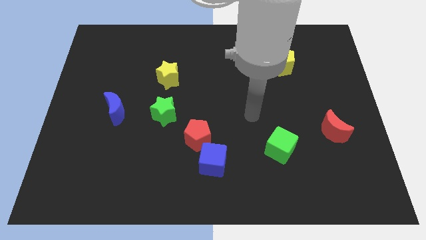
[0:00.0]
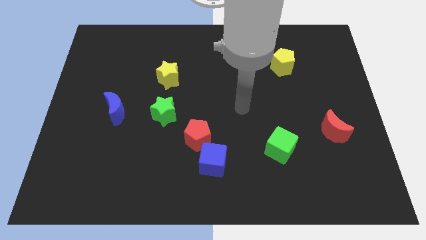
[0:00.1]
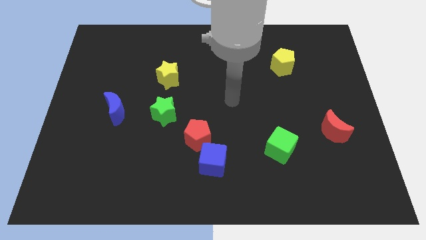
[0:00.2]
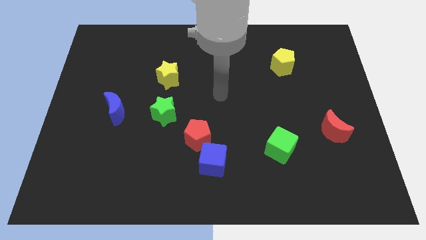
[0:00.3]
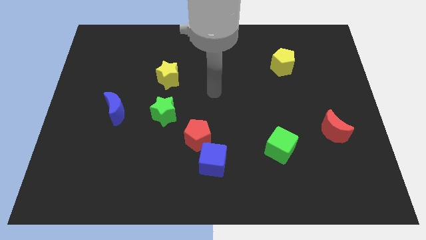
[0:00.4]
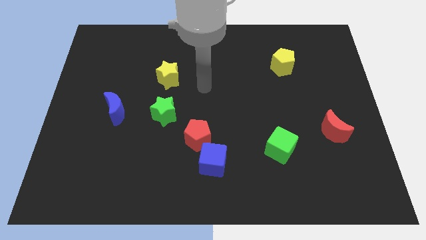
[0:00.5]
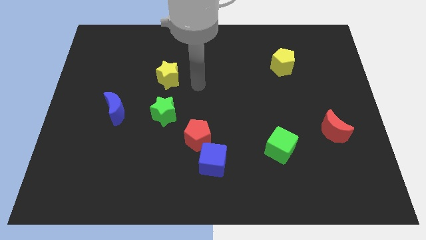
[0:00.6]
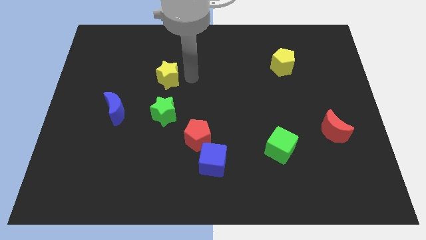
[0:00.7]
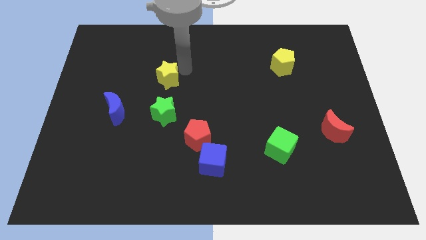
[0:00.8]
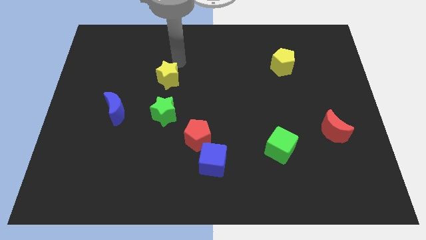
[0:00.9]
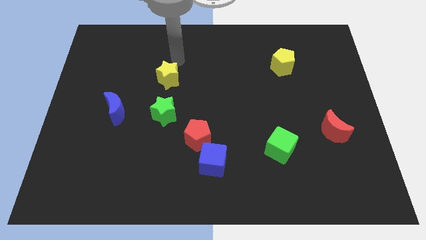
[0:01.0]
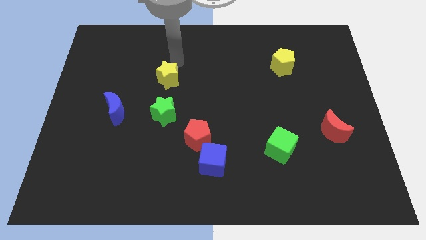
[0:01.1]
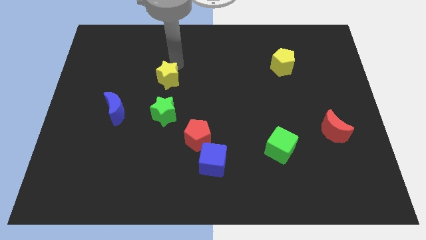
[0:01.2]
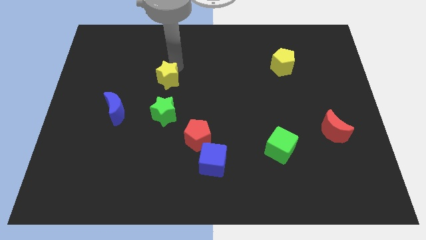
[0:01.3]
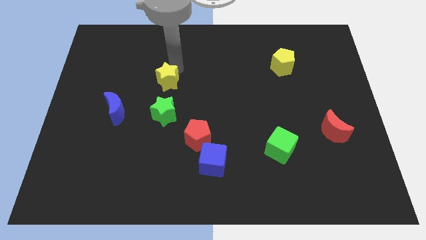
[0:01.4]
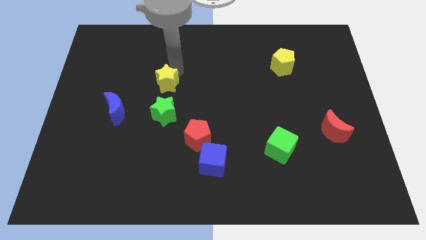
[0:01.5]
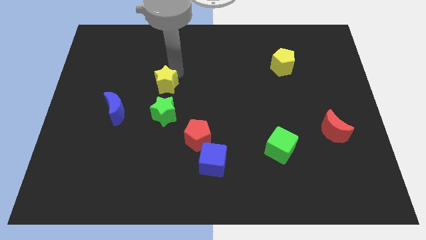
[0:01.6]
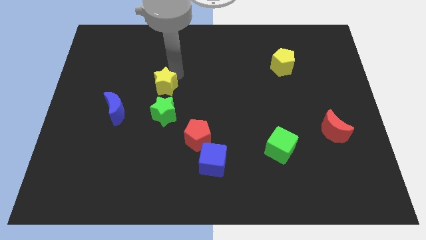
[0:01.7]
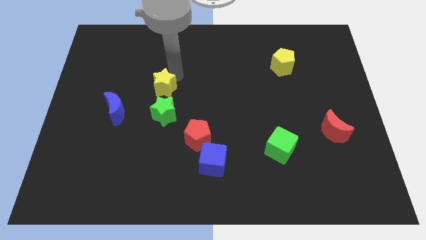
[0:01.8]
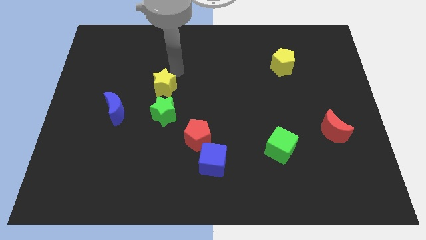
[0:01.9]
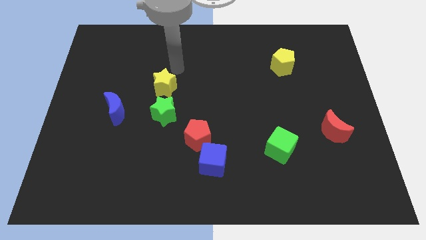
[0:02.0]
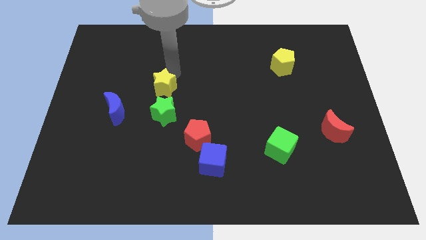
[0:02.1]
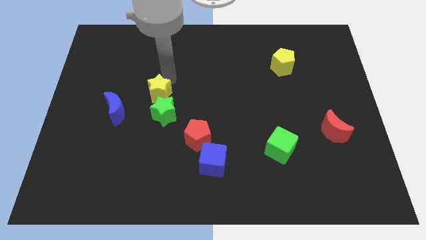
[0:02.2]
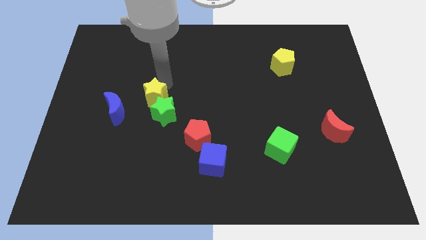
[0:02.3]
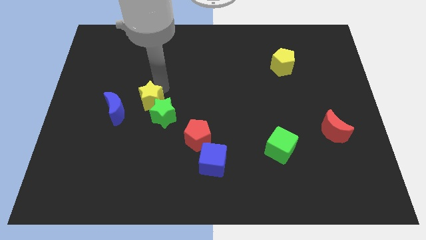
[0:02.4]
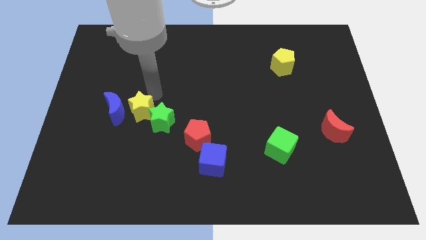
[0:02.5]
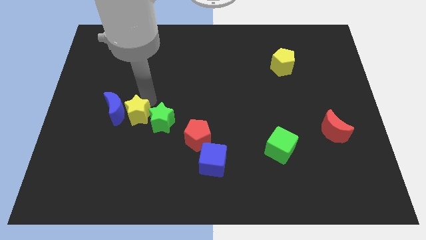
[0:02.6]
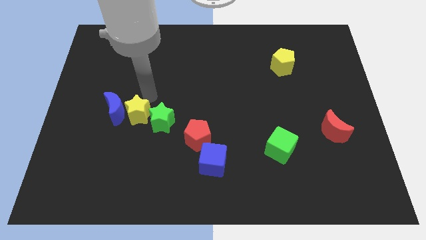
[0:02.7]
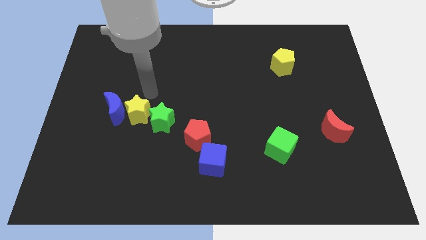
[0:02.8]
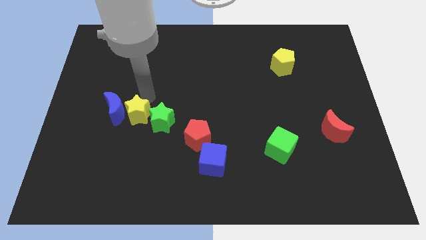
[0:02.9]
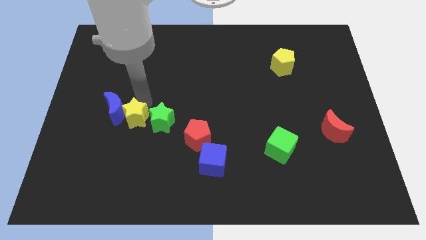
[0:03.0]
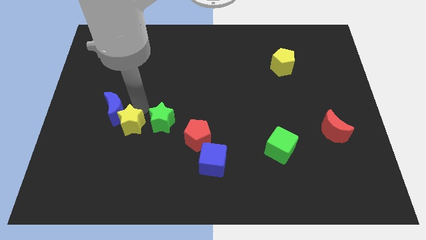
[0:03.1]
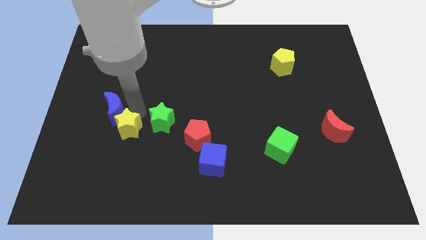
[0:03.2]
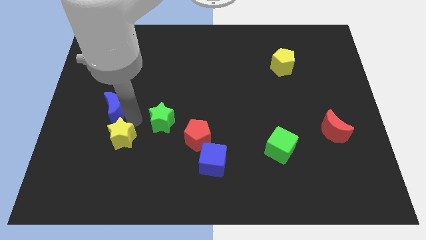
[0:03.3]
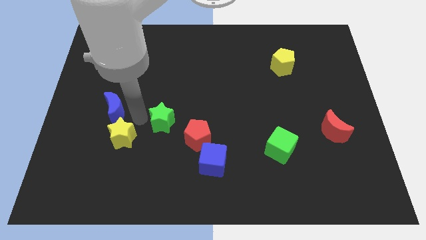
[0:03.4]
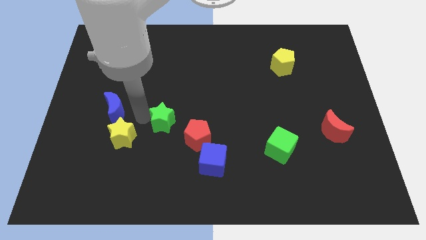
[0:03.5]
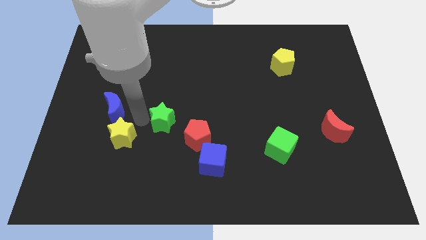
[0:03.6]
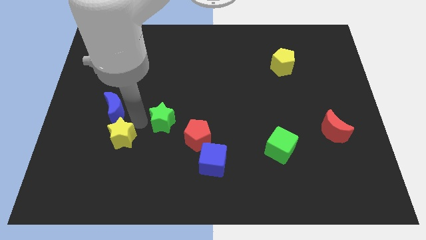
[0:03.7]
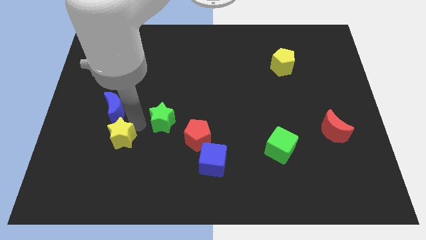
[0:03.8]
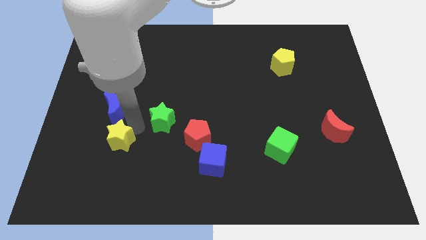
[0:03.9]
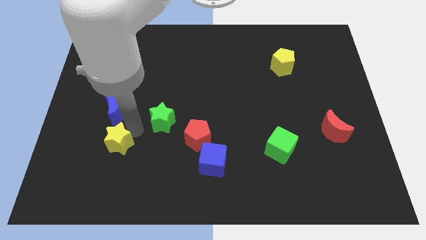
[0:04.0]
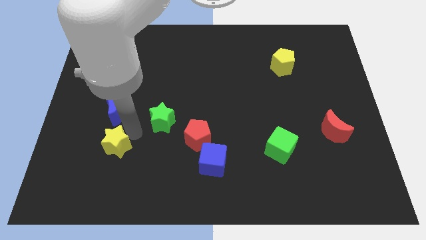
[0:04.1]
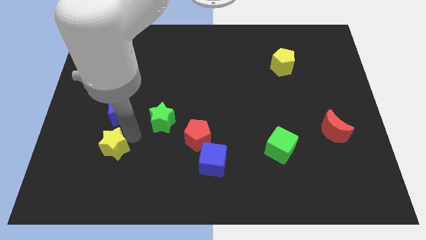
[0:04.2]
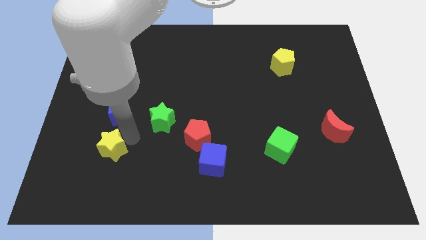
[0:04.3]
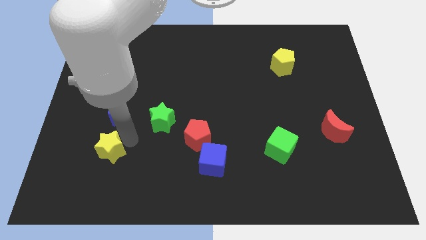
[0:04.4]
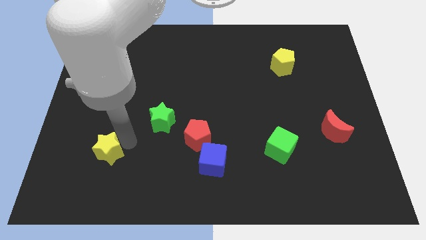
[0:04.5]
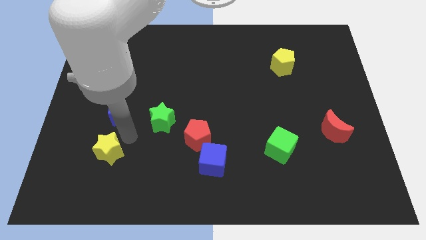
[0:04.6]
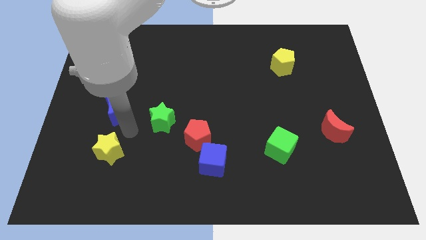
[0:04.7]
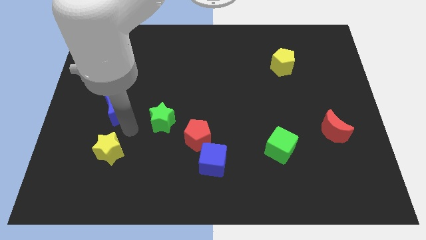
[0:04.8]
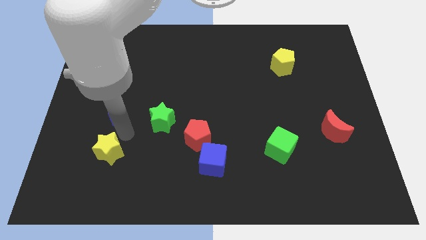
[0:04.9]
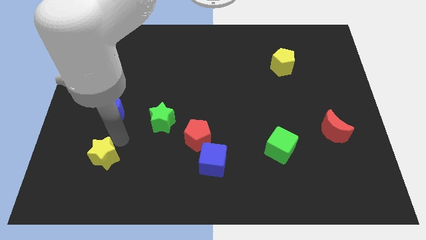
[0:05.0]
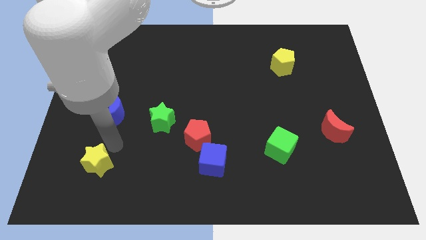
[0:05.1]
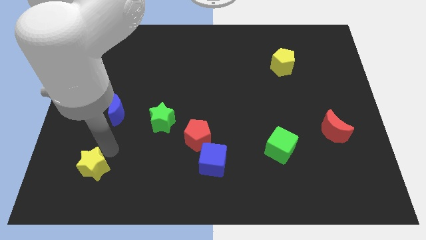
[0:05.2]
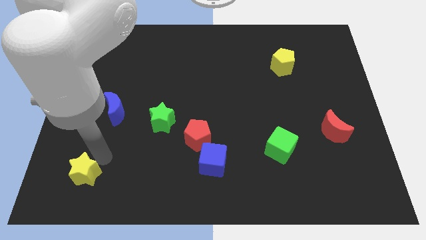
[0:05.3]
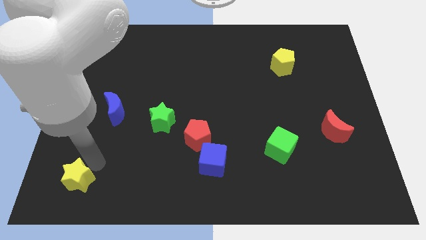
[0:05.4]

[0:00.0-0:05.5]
put the yellow star to the bottom left of the board

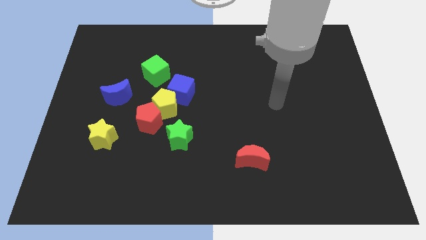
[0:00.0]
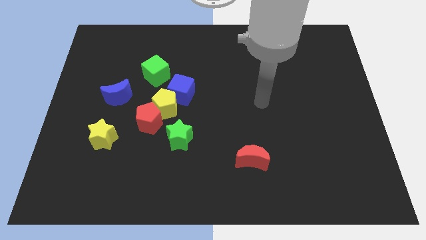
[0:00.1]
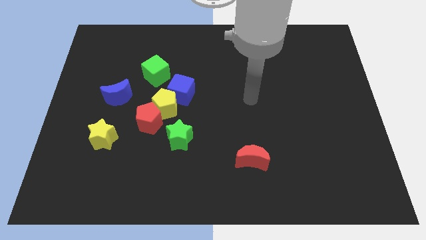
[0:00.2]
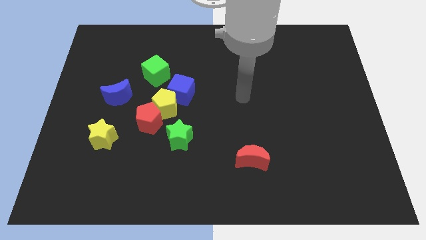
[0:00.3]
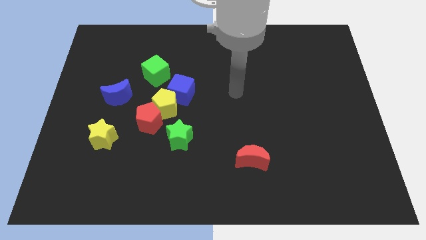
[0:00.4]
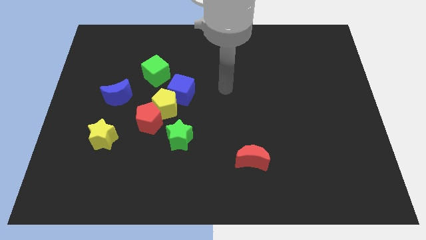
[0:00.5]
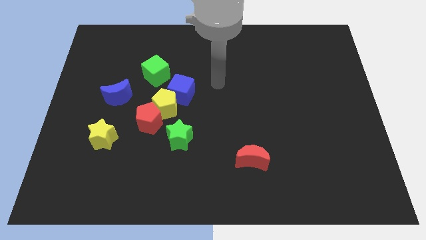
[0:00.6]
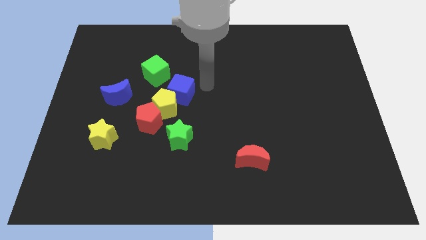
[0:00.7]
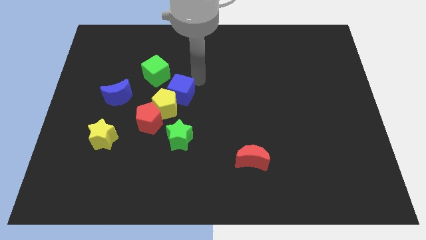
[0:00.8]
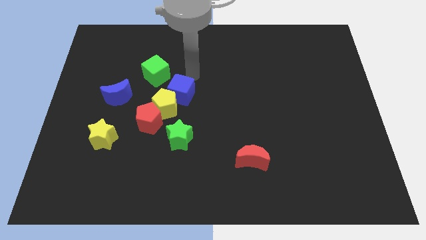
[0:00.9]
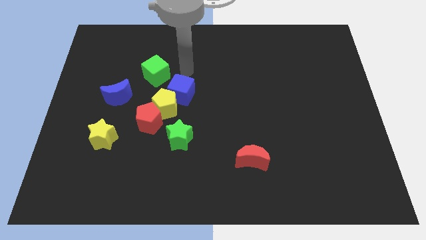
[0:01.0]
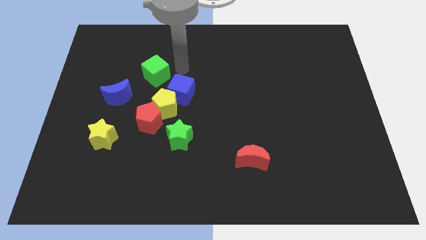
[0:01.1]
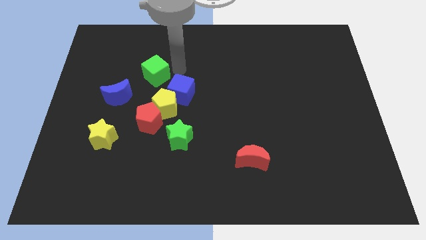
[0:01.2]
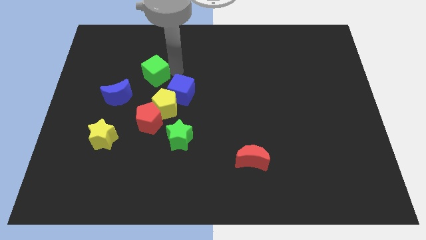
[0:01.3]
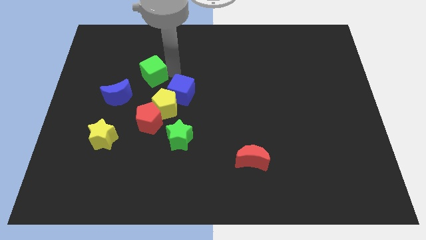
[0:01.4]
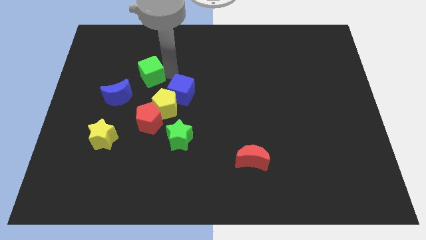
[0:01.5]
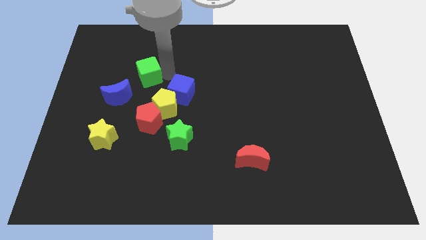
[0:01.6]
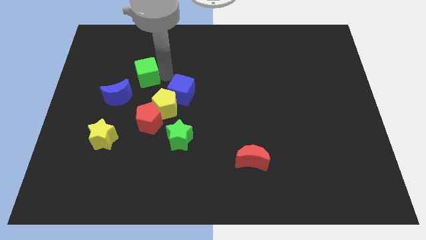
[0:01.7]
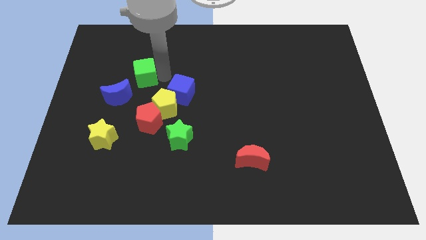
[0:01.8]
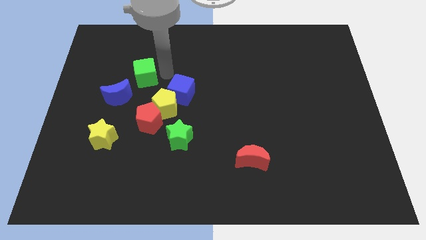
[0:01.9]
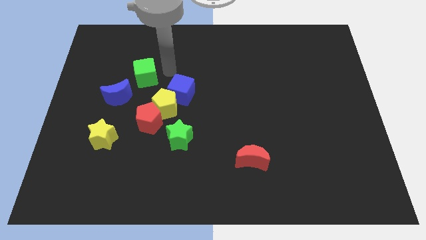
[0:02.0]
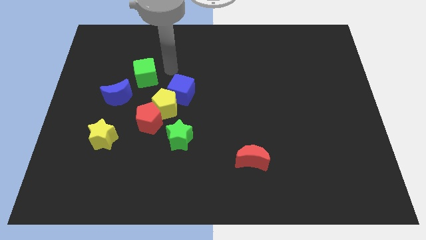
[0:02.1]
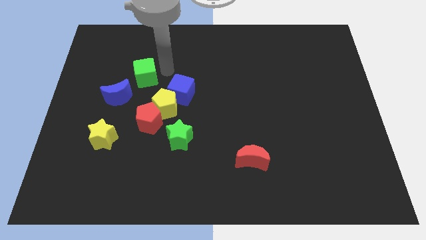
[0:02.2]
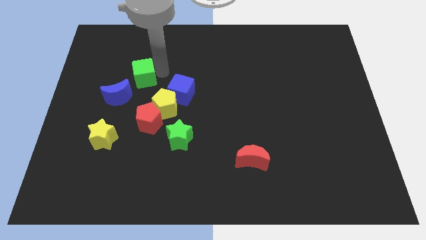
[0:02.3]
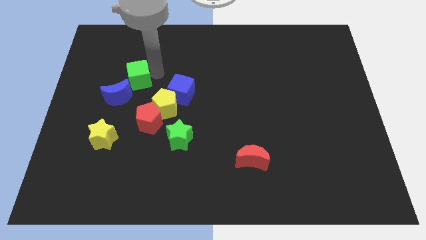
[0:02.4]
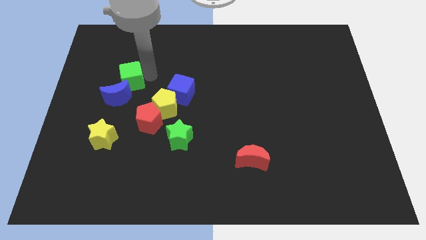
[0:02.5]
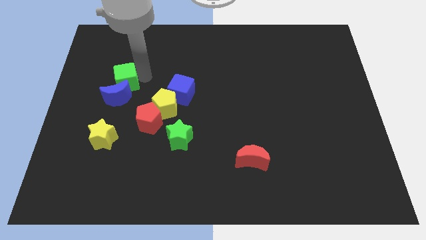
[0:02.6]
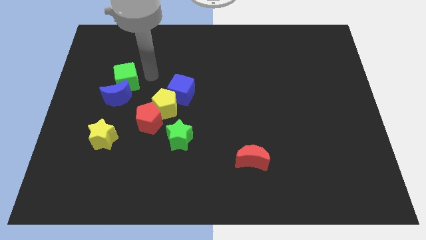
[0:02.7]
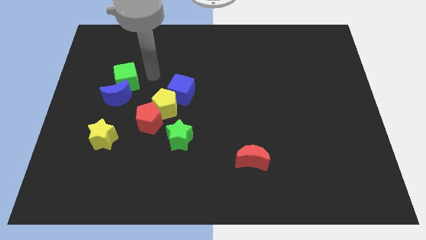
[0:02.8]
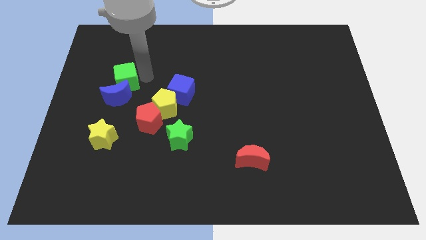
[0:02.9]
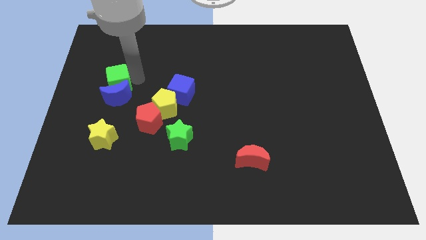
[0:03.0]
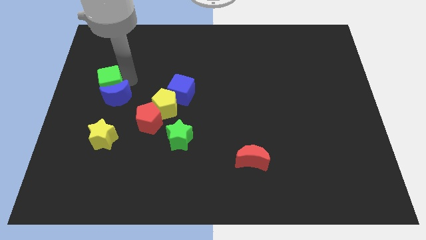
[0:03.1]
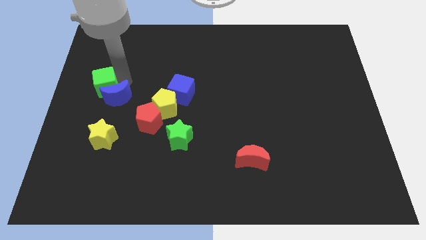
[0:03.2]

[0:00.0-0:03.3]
slide the green cube to the left side
